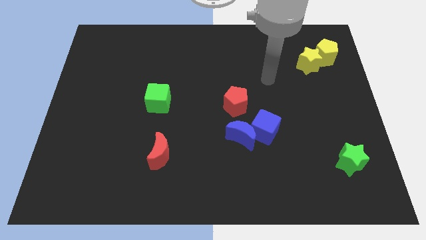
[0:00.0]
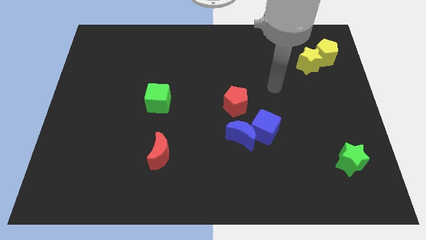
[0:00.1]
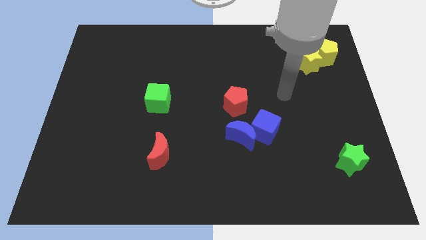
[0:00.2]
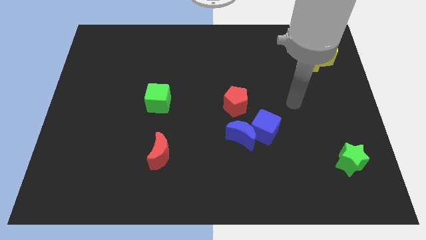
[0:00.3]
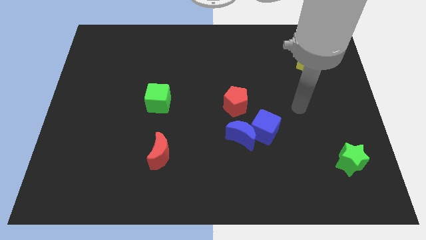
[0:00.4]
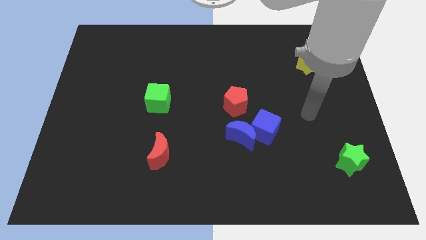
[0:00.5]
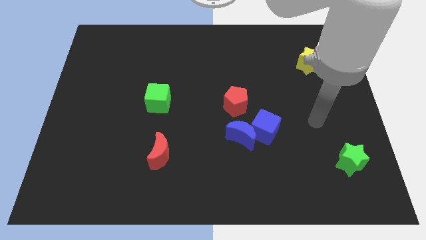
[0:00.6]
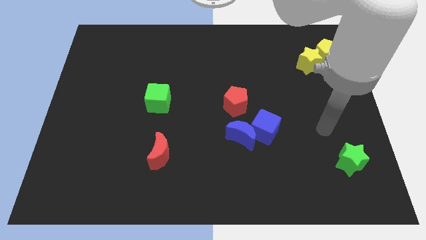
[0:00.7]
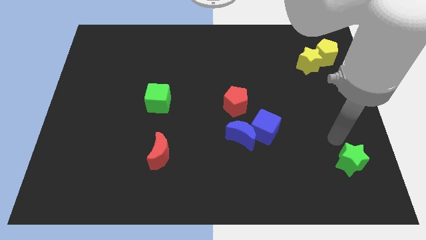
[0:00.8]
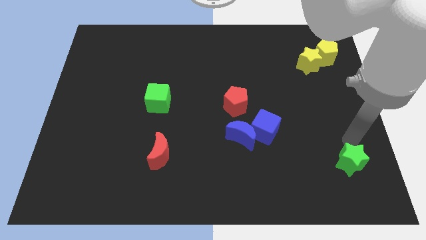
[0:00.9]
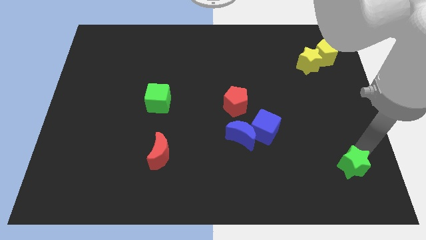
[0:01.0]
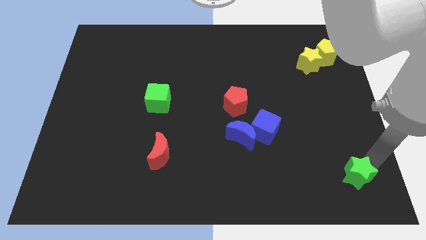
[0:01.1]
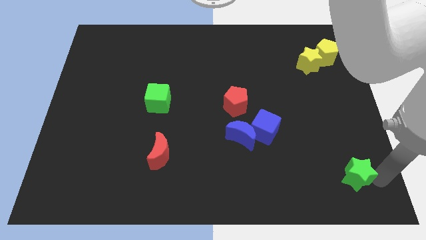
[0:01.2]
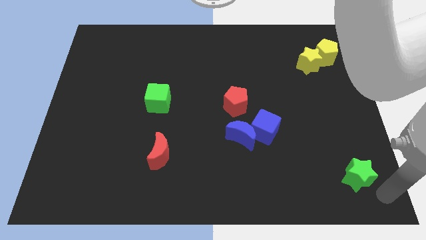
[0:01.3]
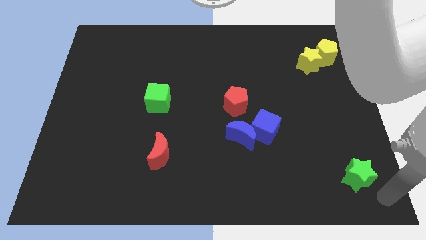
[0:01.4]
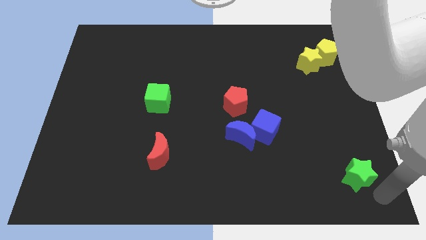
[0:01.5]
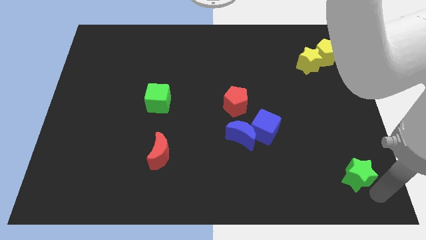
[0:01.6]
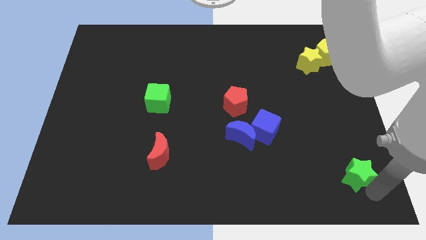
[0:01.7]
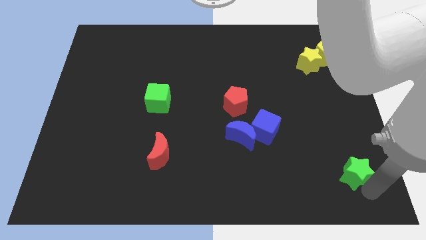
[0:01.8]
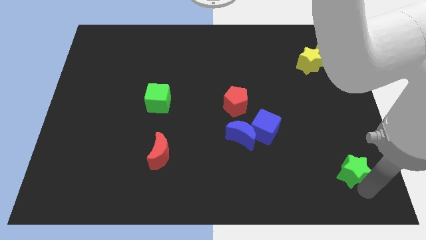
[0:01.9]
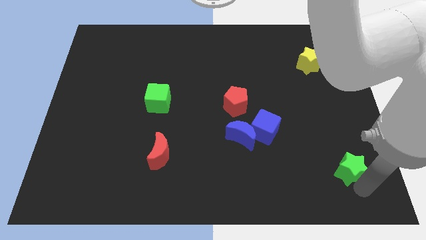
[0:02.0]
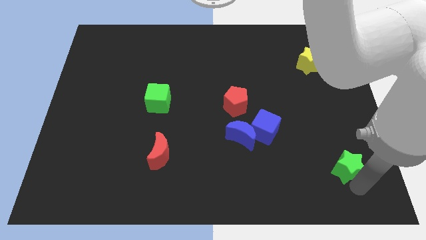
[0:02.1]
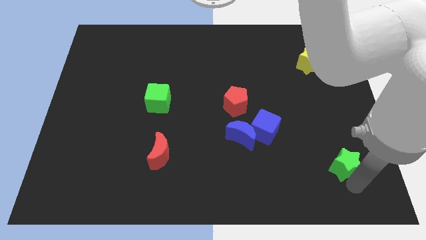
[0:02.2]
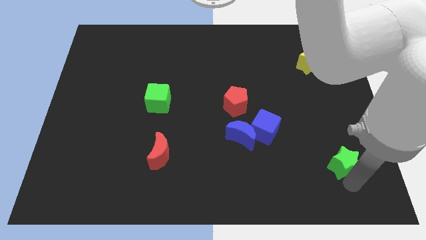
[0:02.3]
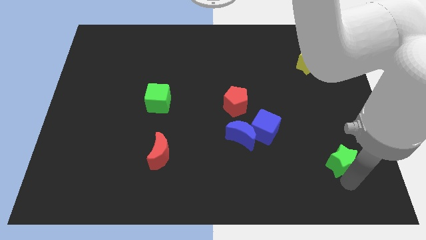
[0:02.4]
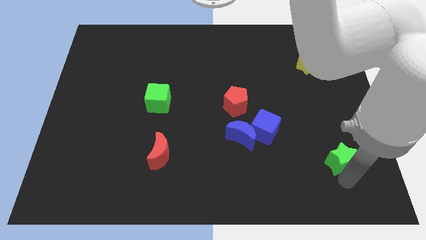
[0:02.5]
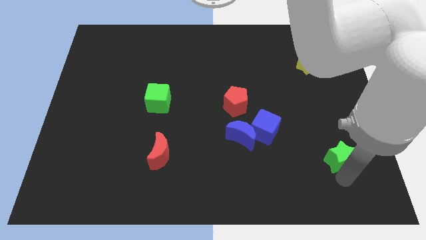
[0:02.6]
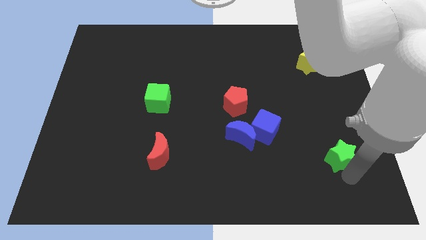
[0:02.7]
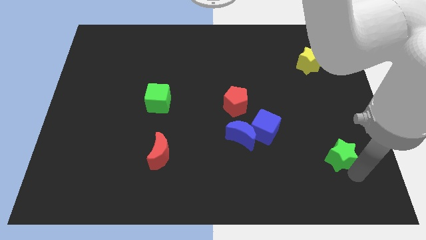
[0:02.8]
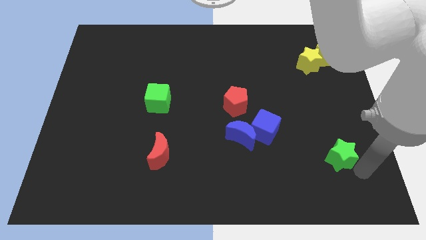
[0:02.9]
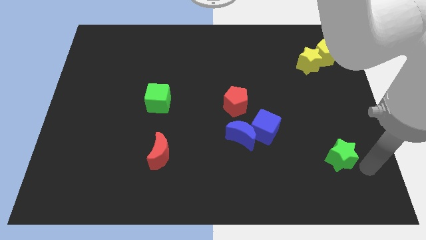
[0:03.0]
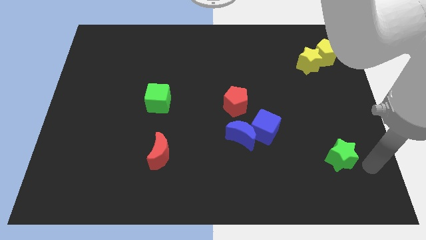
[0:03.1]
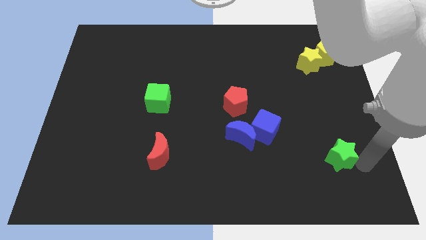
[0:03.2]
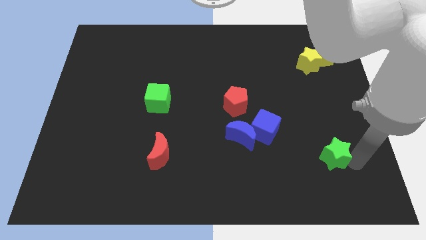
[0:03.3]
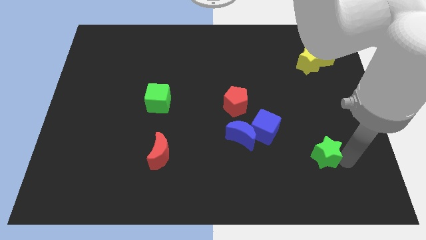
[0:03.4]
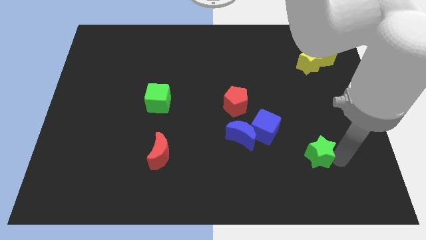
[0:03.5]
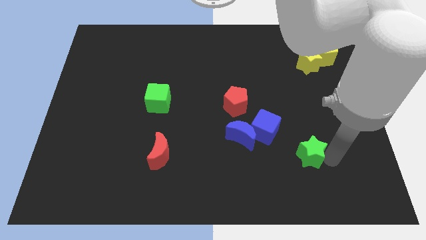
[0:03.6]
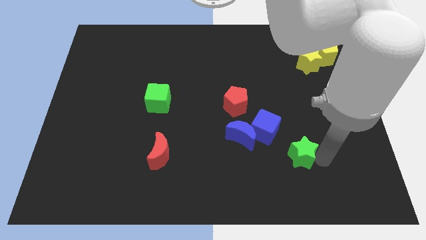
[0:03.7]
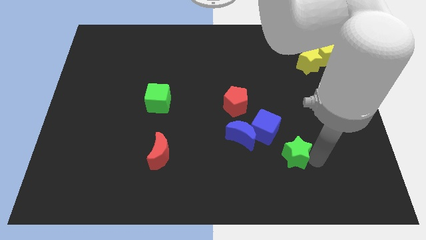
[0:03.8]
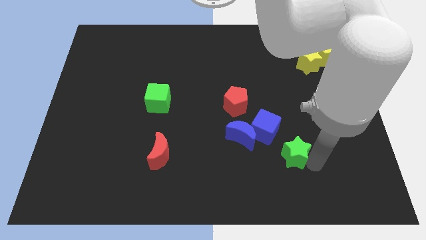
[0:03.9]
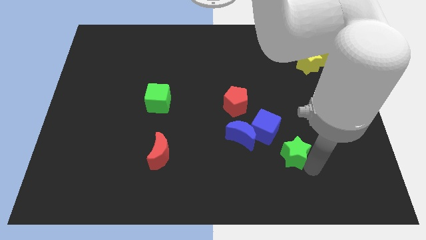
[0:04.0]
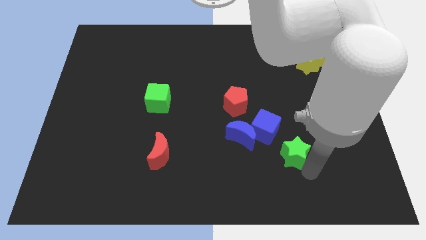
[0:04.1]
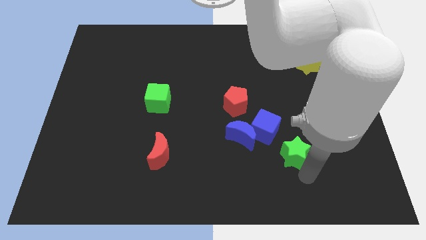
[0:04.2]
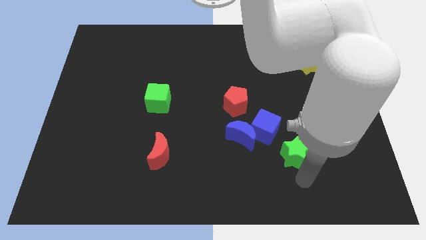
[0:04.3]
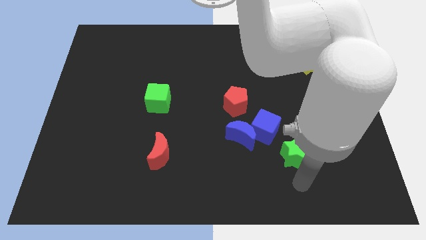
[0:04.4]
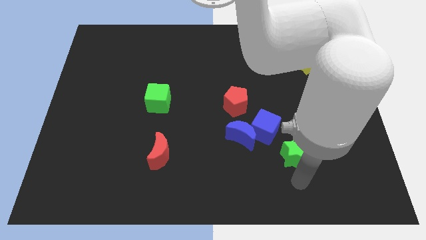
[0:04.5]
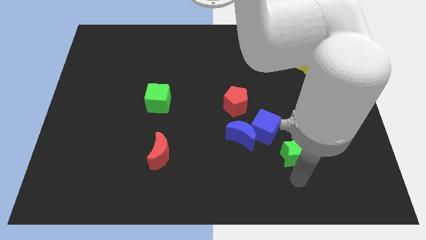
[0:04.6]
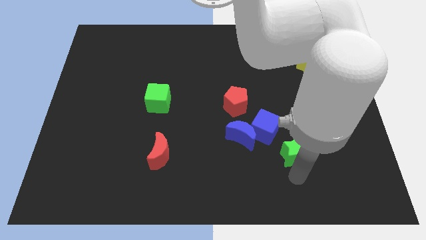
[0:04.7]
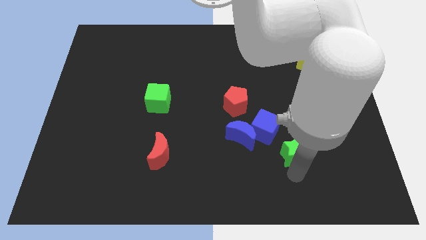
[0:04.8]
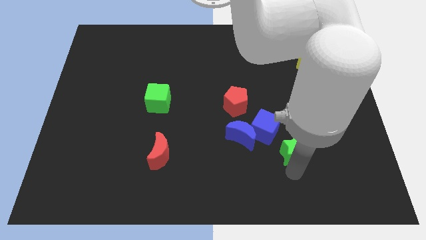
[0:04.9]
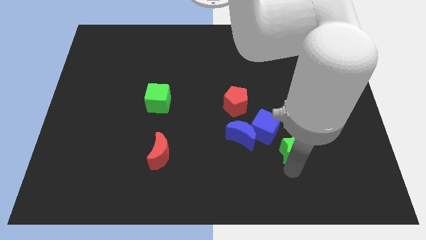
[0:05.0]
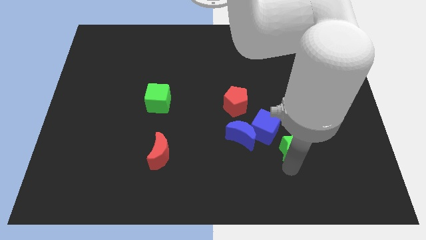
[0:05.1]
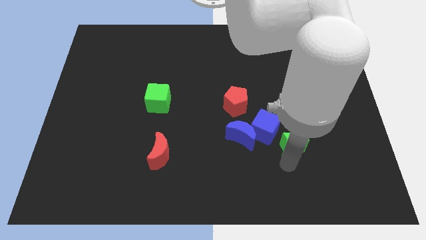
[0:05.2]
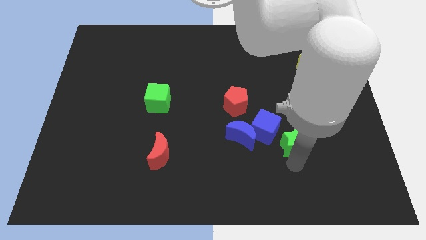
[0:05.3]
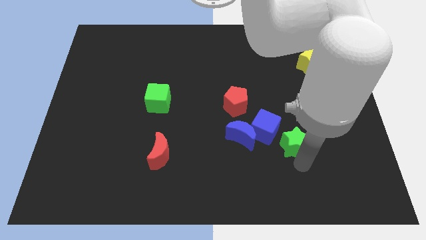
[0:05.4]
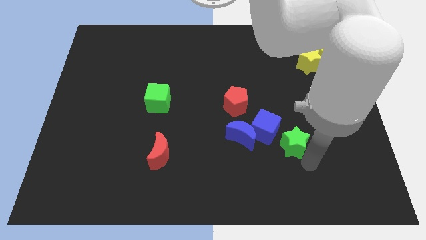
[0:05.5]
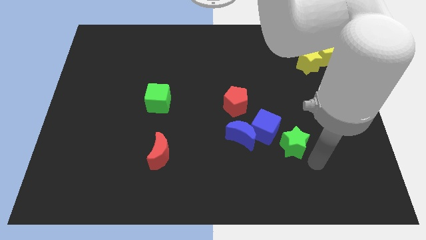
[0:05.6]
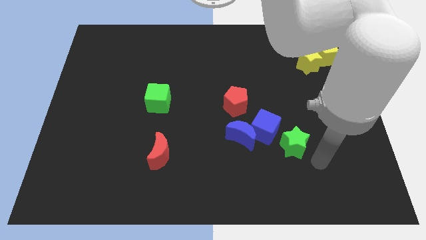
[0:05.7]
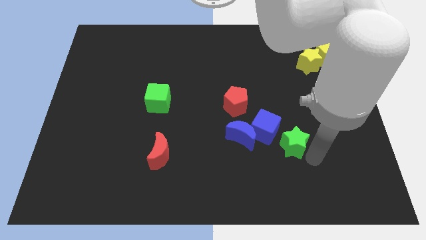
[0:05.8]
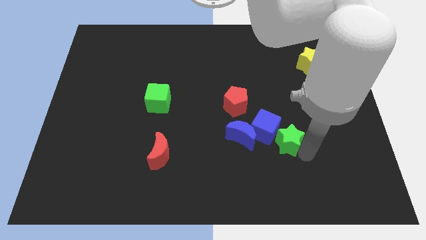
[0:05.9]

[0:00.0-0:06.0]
move the green star next to the blue cube

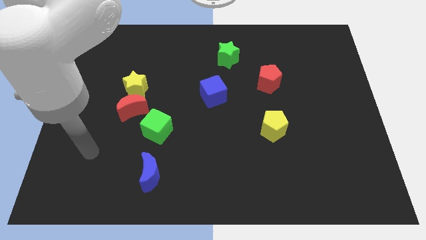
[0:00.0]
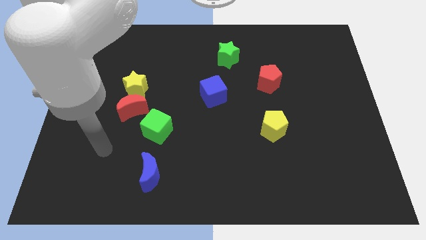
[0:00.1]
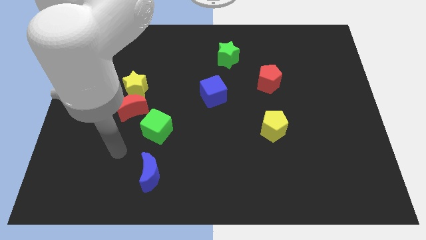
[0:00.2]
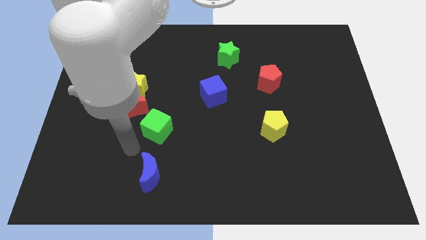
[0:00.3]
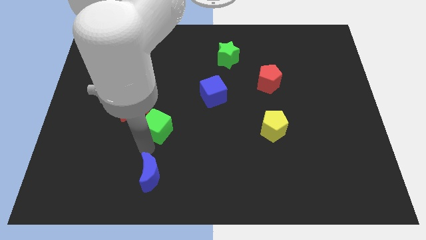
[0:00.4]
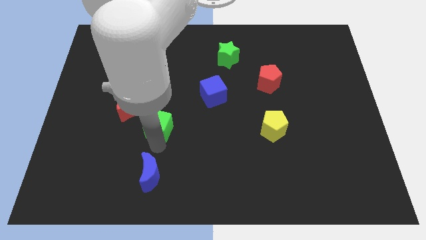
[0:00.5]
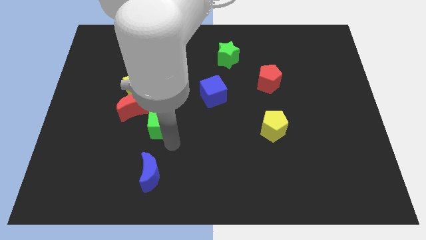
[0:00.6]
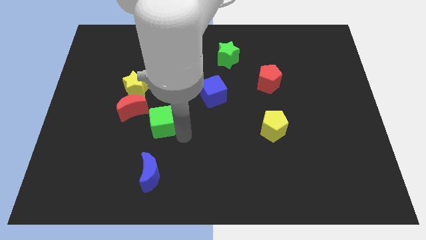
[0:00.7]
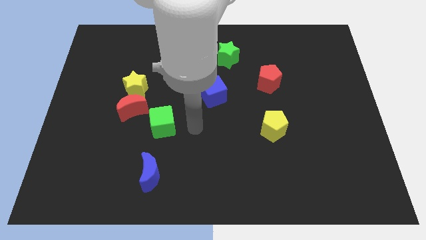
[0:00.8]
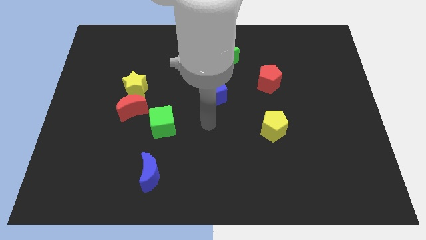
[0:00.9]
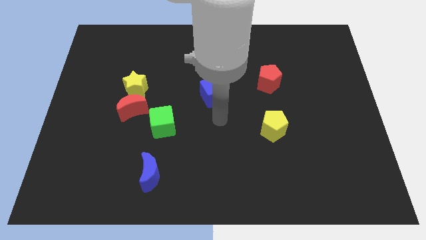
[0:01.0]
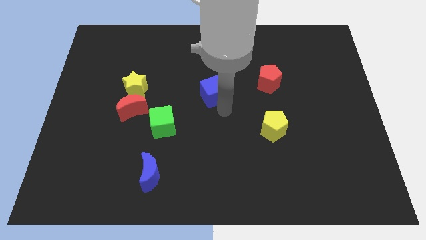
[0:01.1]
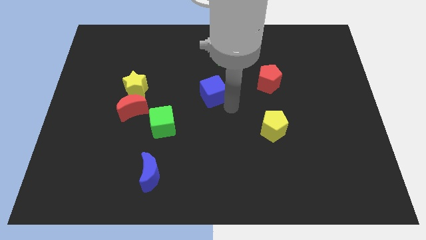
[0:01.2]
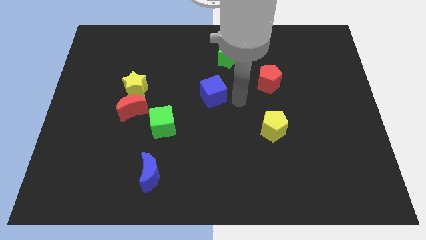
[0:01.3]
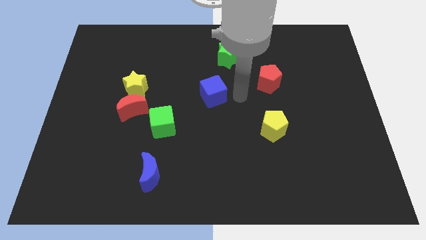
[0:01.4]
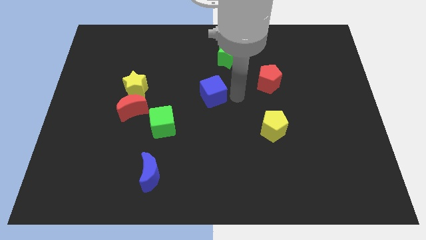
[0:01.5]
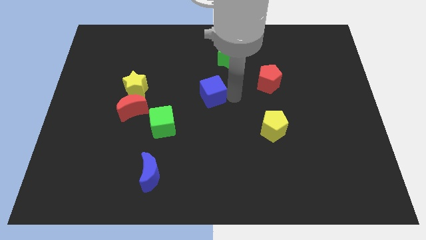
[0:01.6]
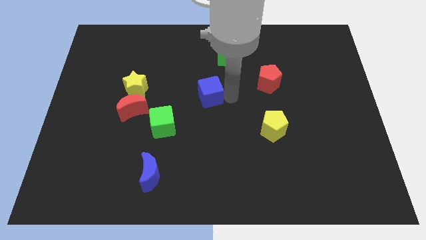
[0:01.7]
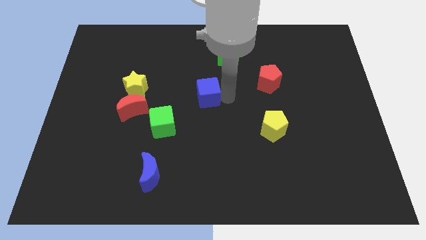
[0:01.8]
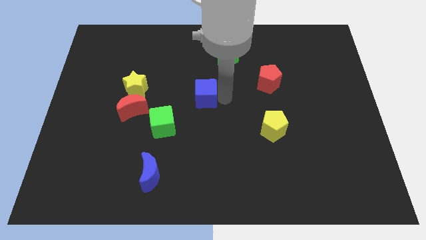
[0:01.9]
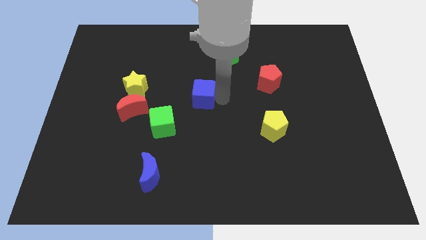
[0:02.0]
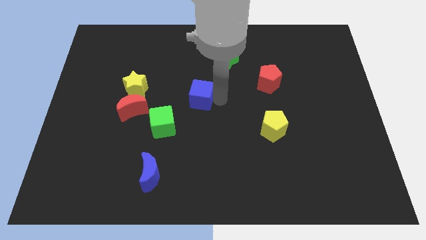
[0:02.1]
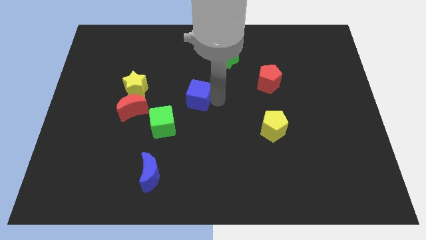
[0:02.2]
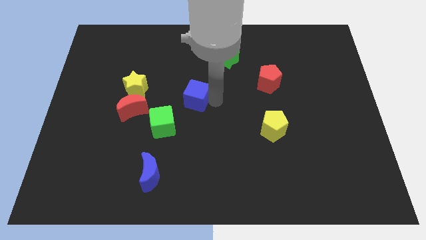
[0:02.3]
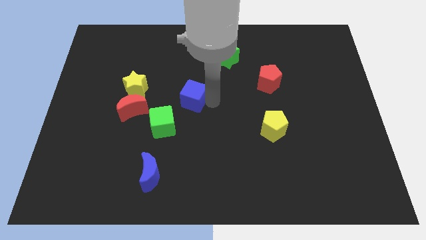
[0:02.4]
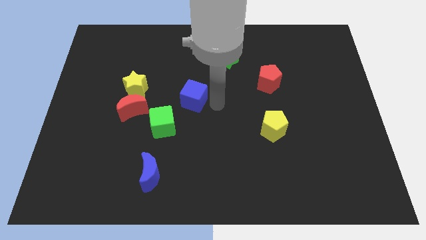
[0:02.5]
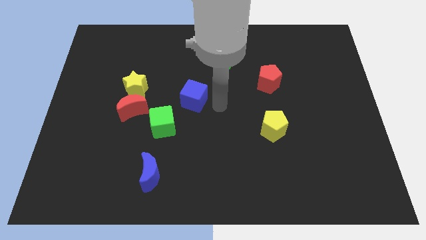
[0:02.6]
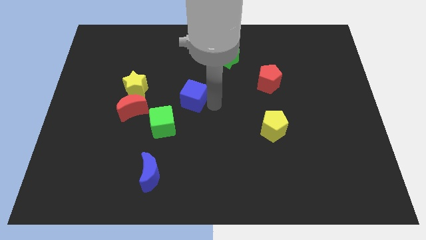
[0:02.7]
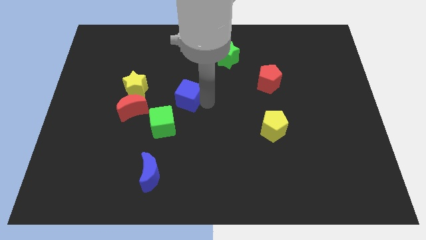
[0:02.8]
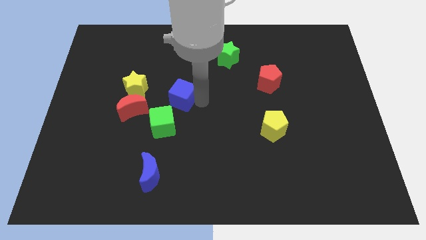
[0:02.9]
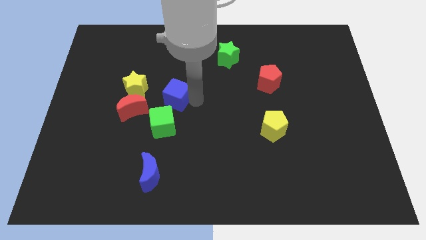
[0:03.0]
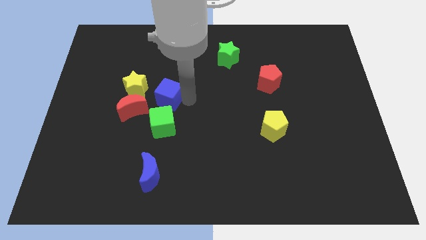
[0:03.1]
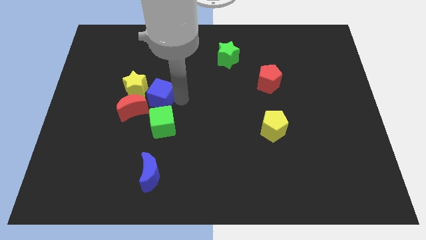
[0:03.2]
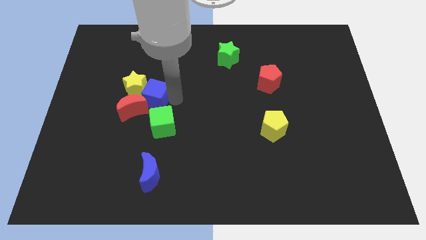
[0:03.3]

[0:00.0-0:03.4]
put the blue cube towards the yellow star
